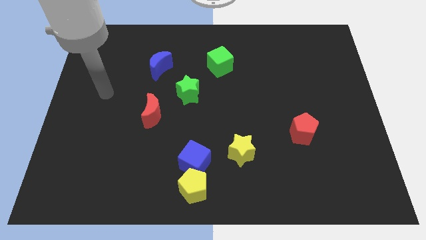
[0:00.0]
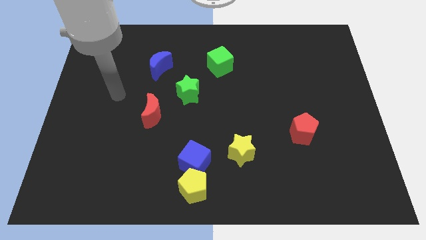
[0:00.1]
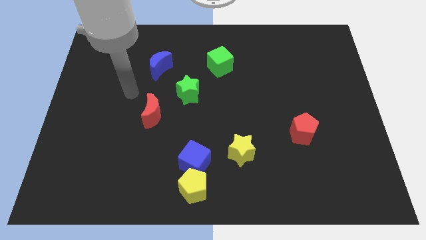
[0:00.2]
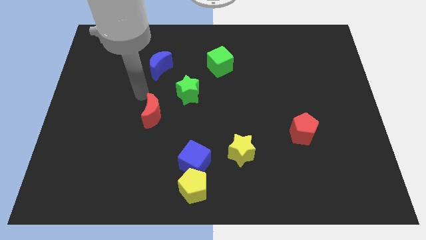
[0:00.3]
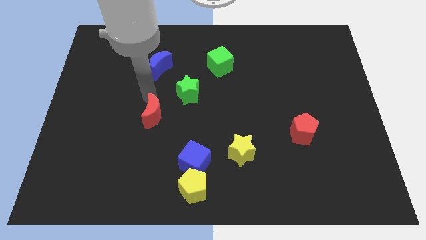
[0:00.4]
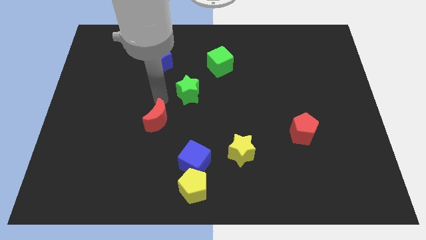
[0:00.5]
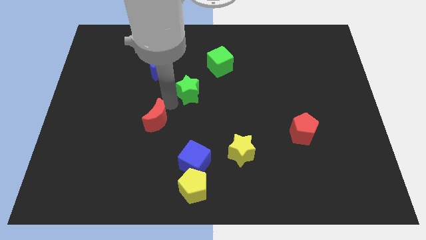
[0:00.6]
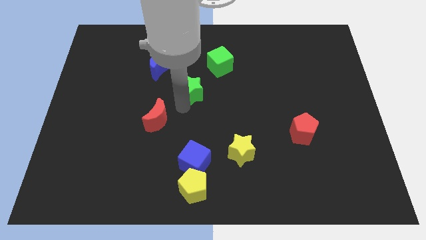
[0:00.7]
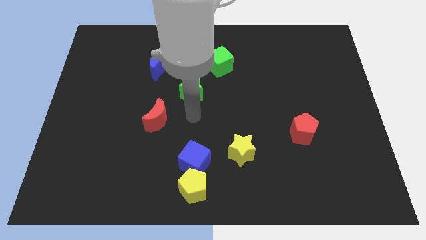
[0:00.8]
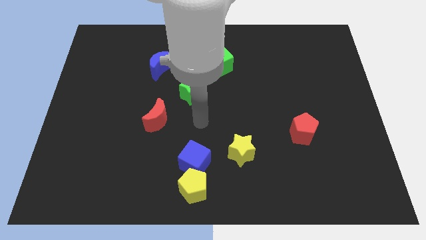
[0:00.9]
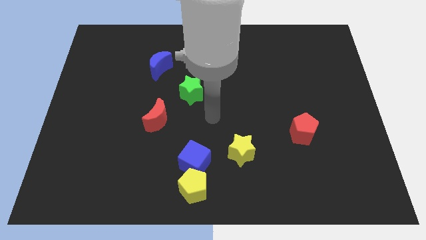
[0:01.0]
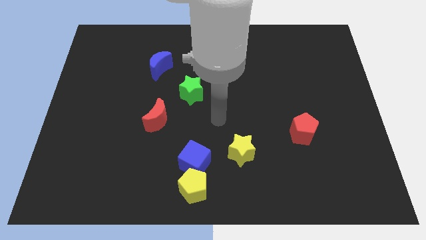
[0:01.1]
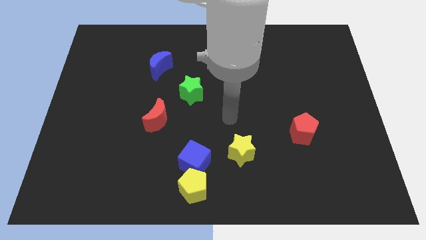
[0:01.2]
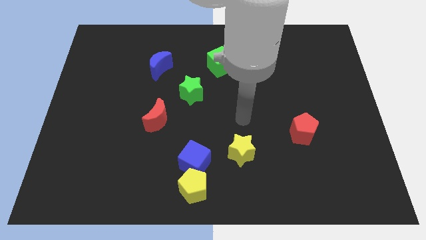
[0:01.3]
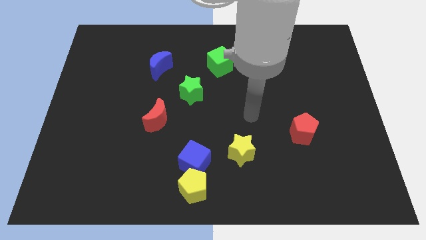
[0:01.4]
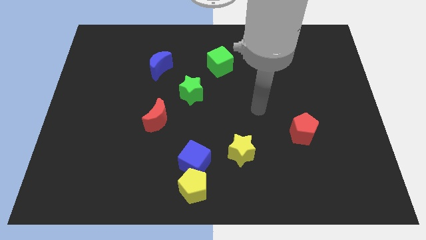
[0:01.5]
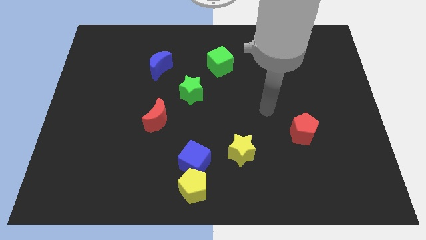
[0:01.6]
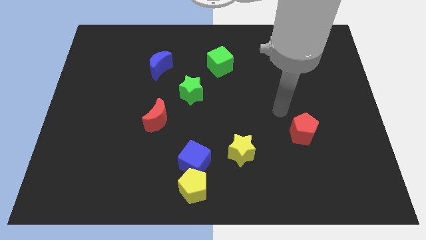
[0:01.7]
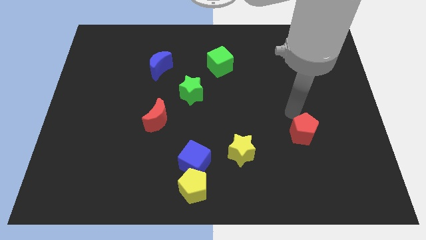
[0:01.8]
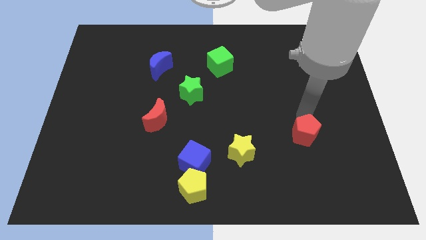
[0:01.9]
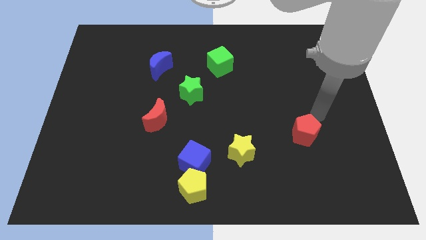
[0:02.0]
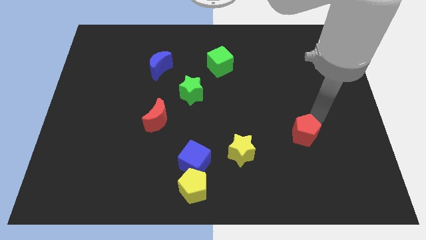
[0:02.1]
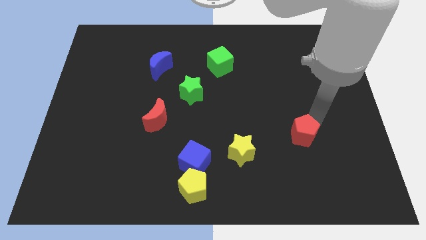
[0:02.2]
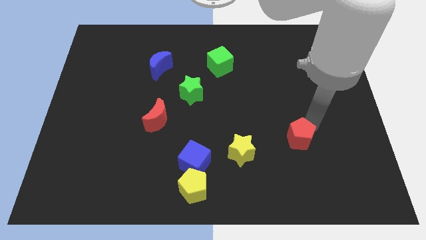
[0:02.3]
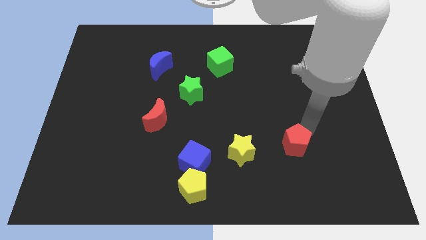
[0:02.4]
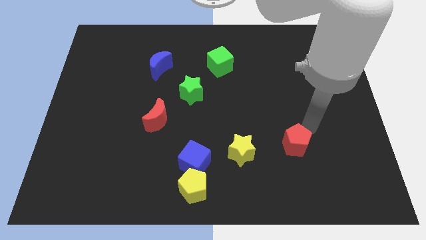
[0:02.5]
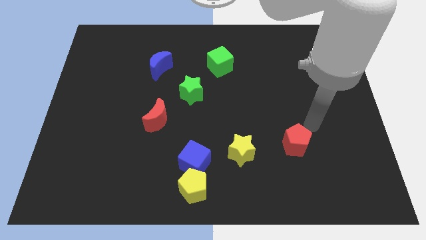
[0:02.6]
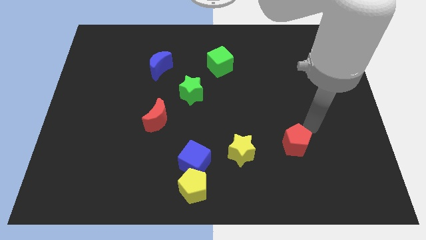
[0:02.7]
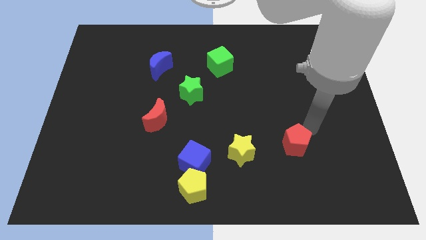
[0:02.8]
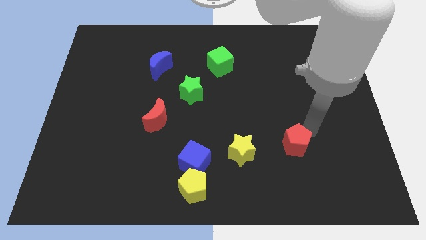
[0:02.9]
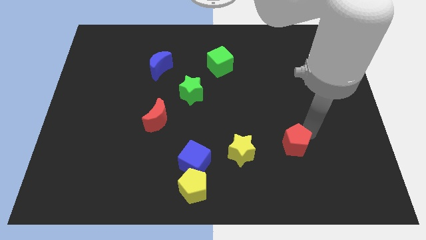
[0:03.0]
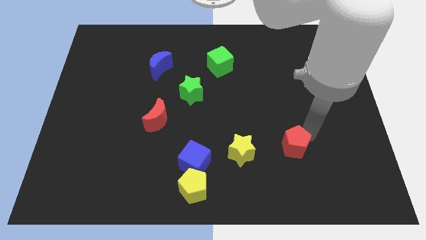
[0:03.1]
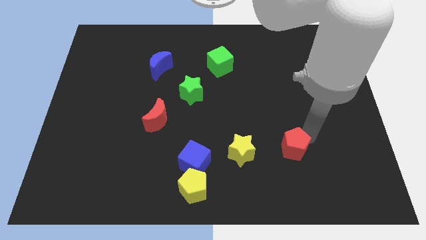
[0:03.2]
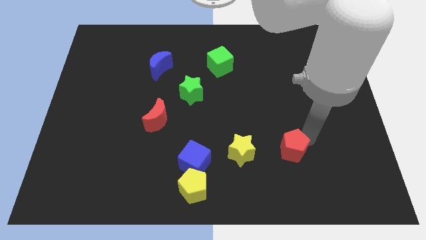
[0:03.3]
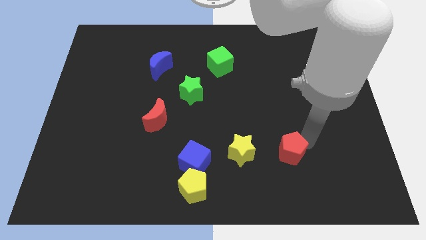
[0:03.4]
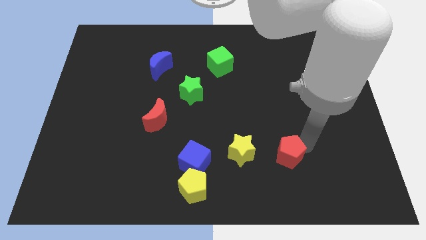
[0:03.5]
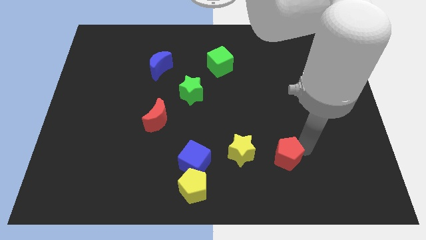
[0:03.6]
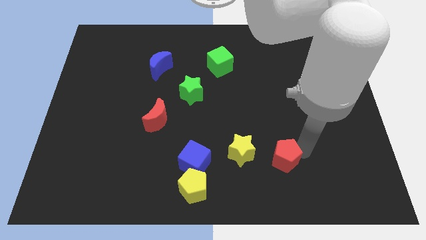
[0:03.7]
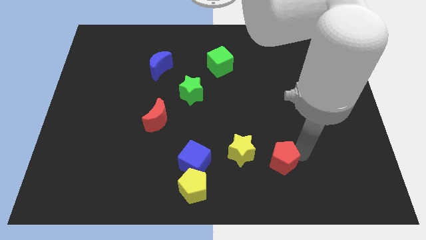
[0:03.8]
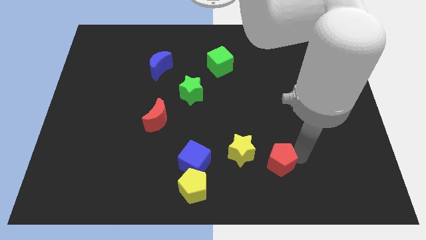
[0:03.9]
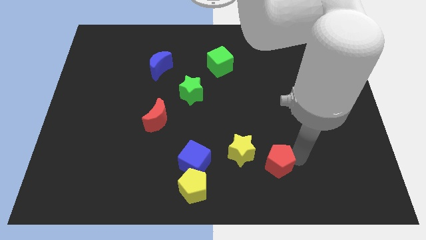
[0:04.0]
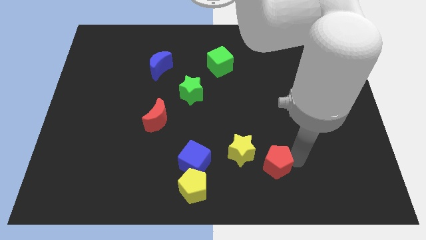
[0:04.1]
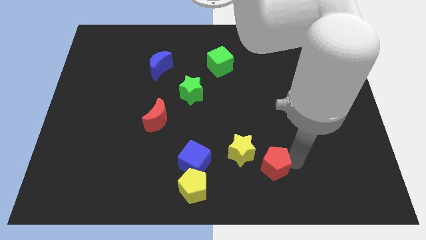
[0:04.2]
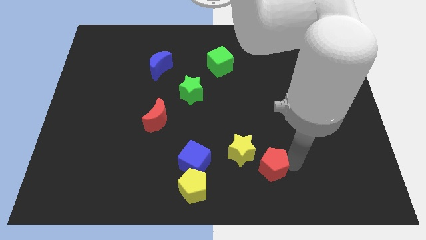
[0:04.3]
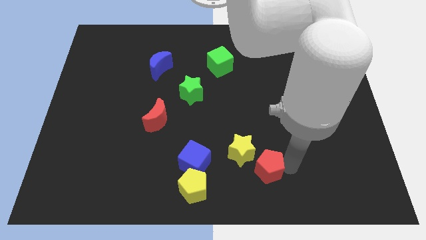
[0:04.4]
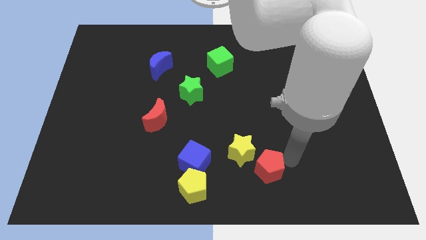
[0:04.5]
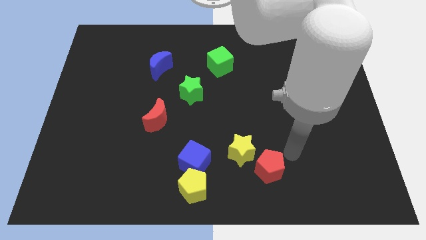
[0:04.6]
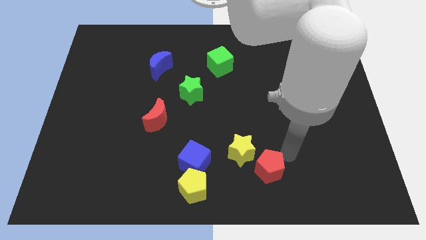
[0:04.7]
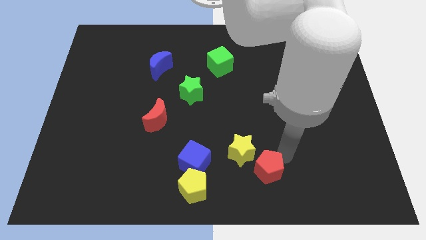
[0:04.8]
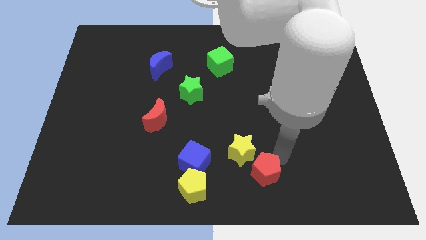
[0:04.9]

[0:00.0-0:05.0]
slide the red pentagon to the bottom
